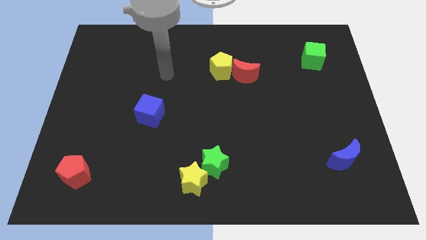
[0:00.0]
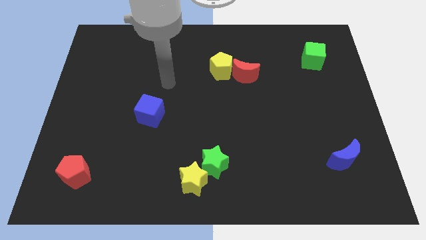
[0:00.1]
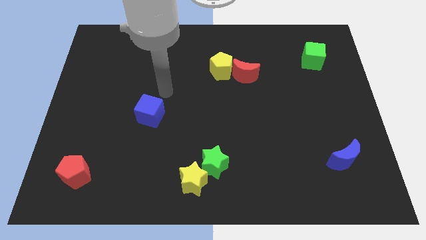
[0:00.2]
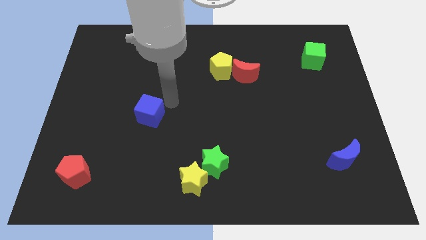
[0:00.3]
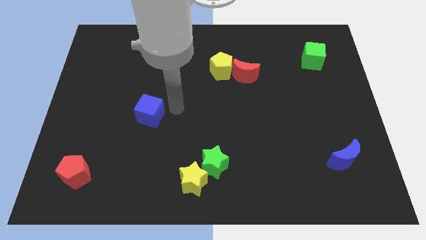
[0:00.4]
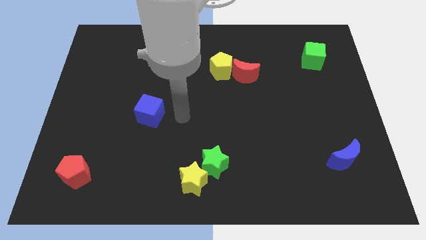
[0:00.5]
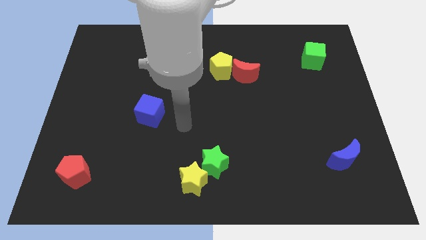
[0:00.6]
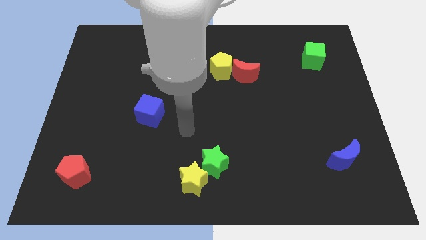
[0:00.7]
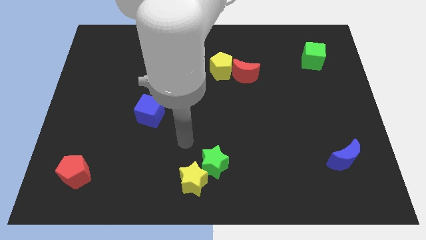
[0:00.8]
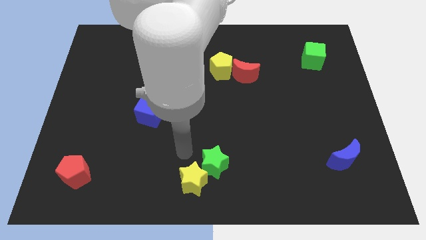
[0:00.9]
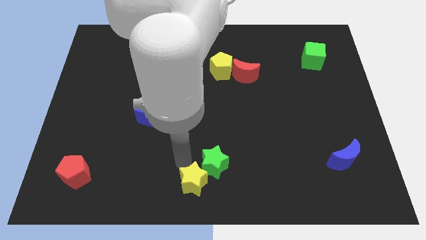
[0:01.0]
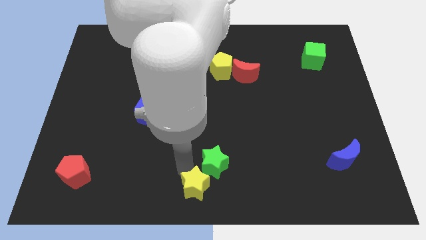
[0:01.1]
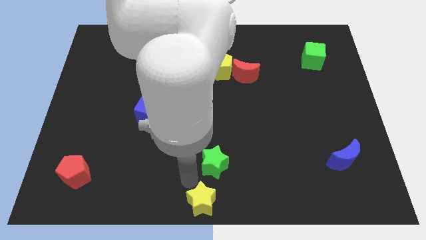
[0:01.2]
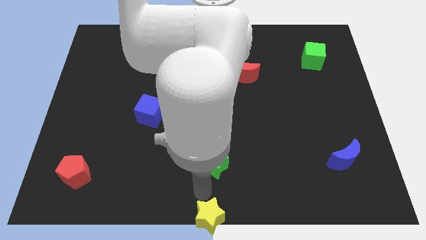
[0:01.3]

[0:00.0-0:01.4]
move the green star away from the yellow star

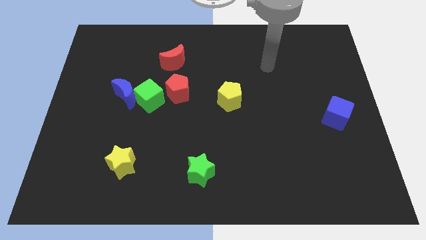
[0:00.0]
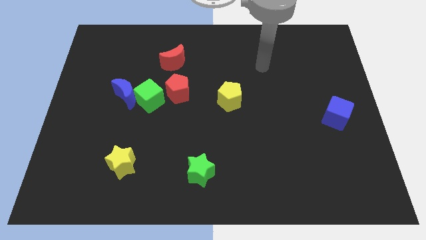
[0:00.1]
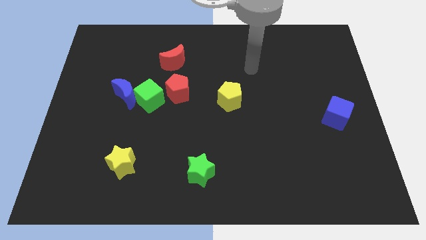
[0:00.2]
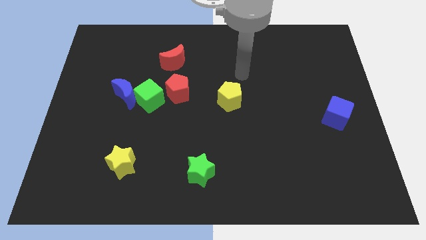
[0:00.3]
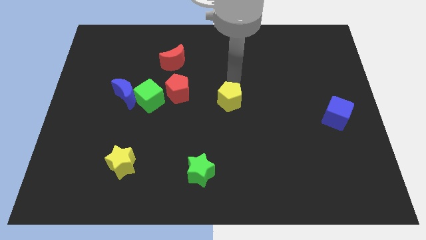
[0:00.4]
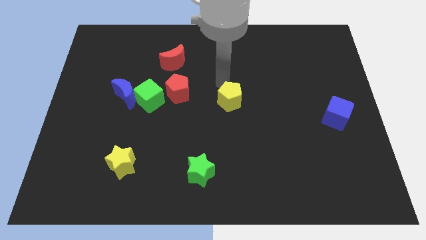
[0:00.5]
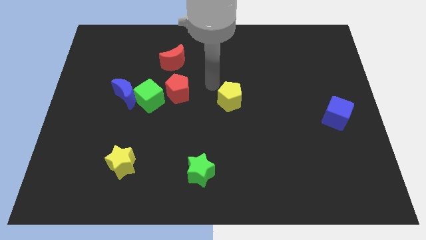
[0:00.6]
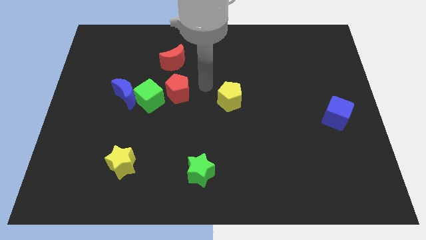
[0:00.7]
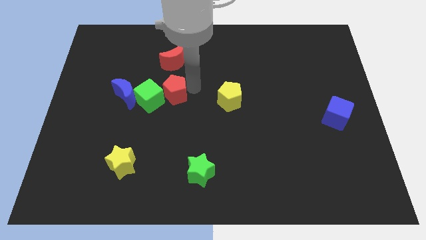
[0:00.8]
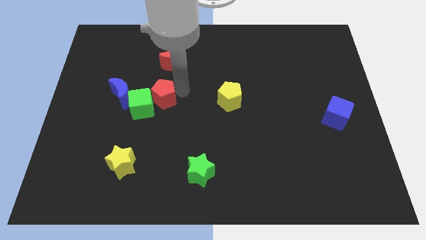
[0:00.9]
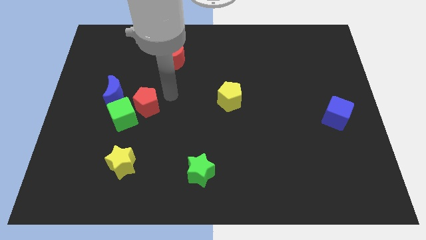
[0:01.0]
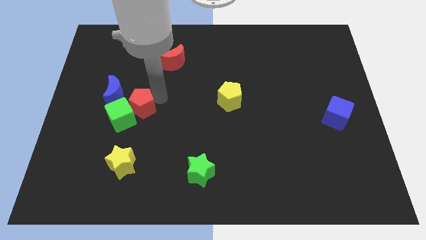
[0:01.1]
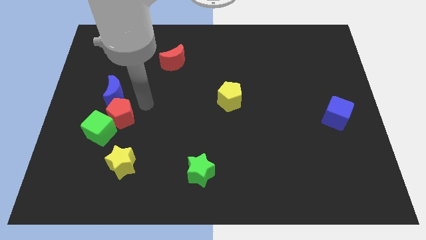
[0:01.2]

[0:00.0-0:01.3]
pull the blue moon apart from the green cube

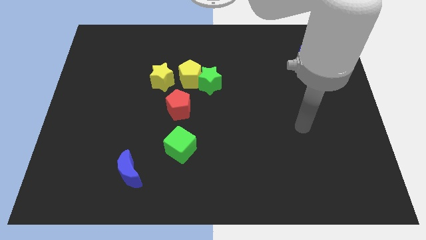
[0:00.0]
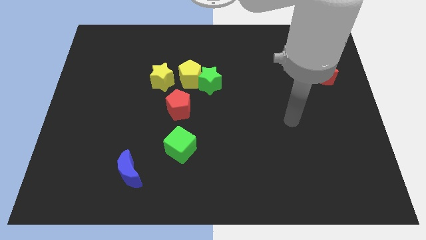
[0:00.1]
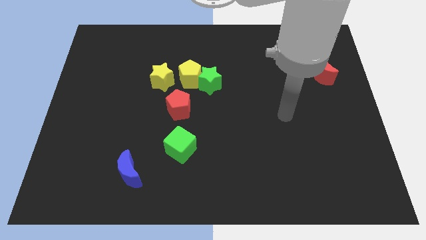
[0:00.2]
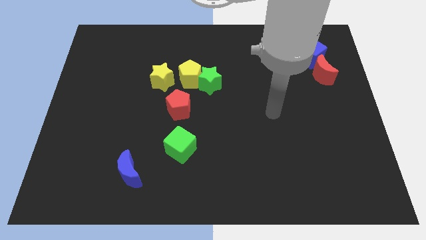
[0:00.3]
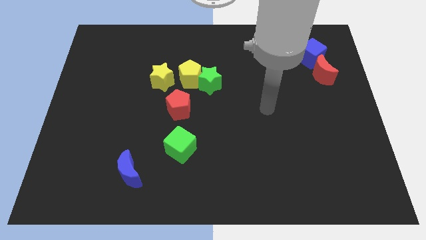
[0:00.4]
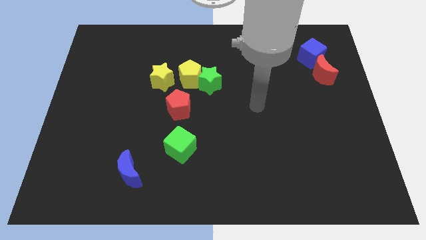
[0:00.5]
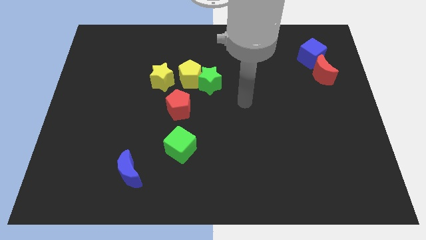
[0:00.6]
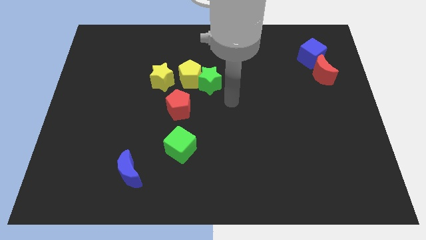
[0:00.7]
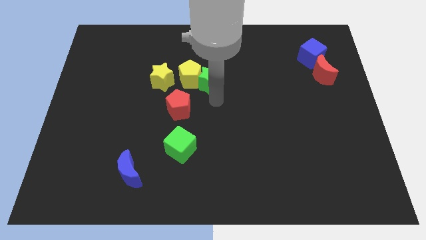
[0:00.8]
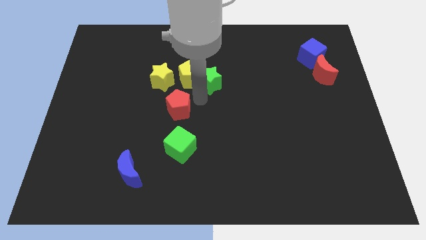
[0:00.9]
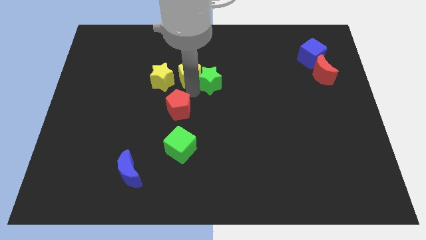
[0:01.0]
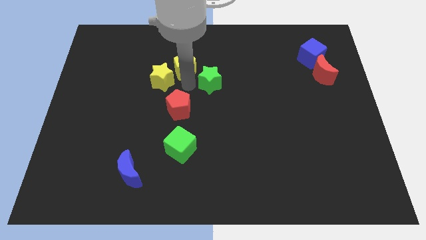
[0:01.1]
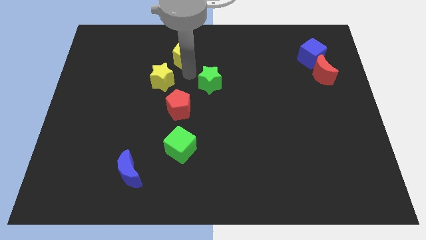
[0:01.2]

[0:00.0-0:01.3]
separate the green star from the yellow pentagon

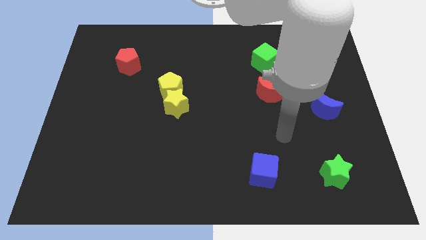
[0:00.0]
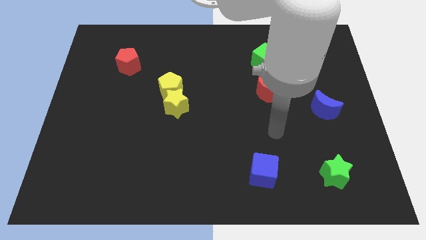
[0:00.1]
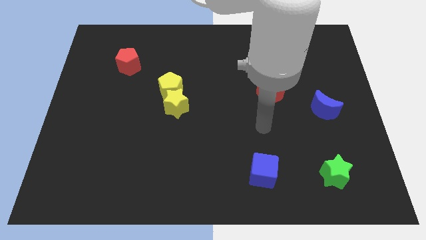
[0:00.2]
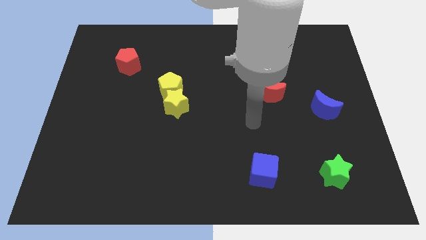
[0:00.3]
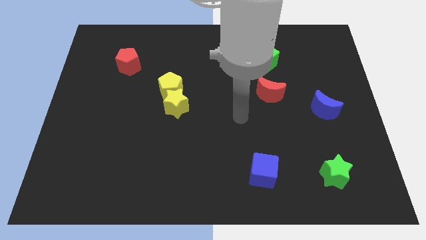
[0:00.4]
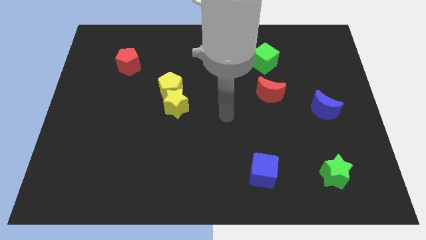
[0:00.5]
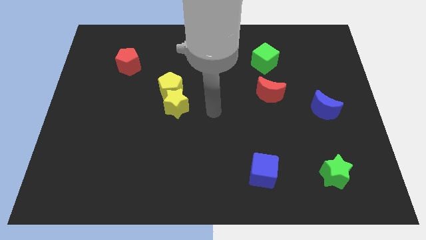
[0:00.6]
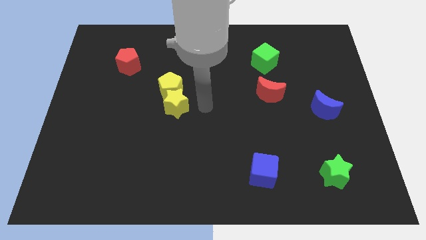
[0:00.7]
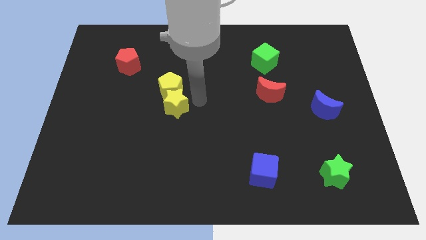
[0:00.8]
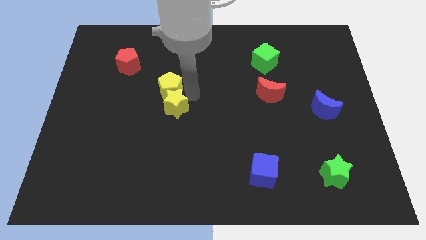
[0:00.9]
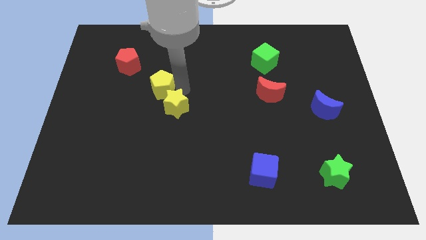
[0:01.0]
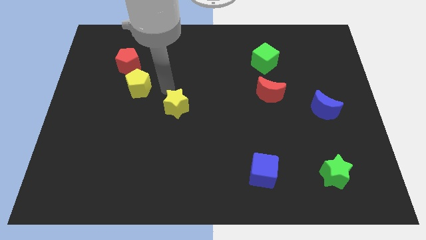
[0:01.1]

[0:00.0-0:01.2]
move the yellow star away from the yellow pentagon

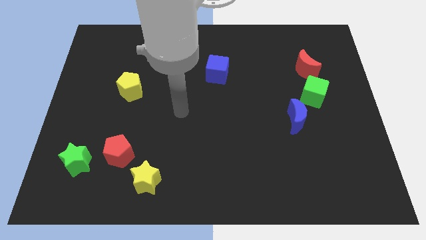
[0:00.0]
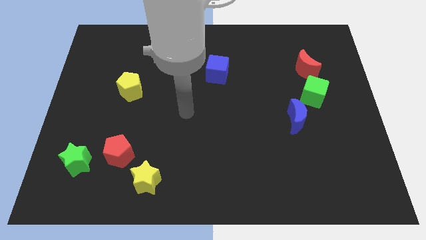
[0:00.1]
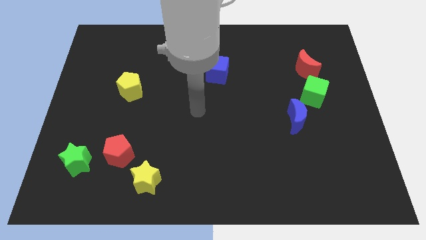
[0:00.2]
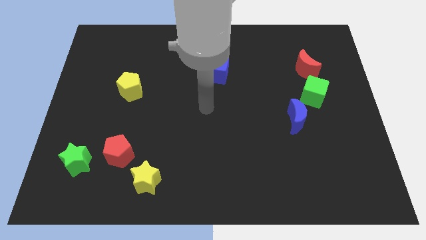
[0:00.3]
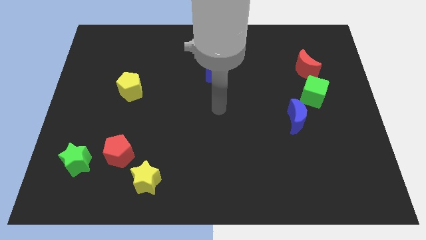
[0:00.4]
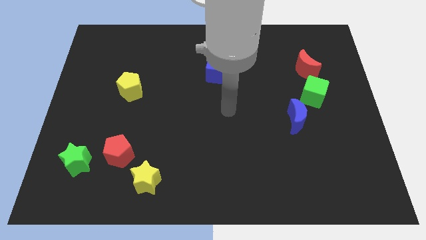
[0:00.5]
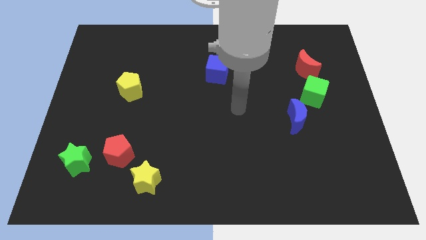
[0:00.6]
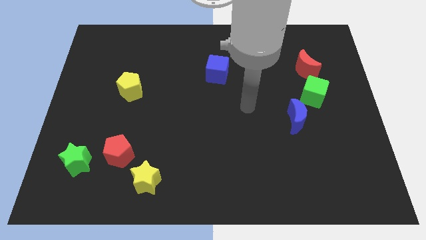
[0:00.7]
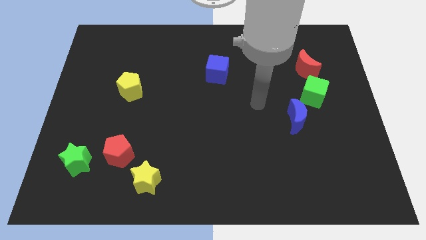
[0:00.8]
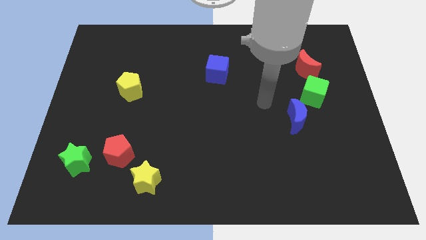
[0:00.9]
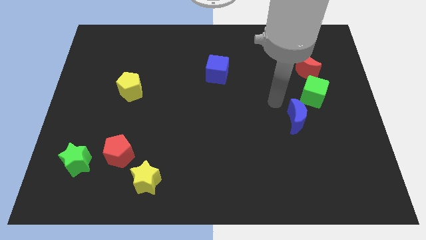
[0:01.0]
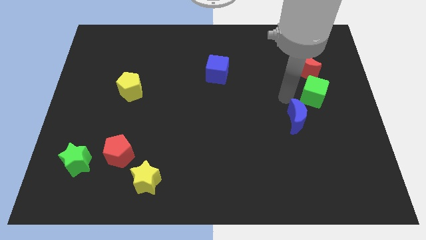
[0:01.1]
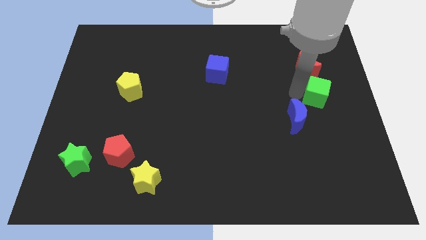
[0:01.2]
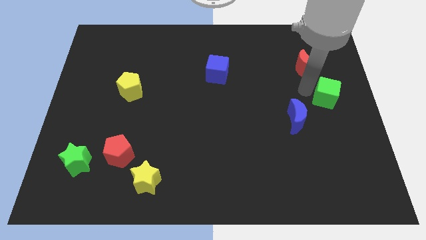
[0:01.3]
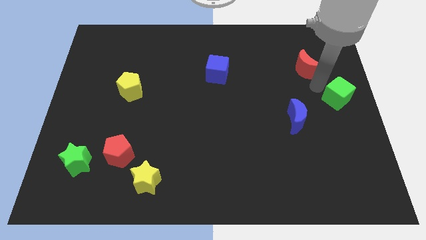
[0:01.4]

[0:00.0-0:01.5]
separate the red moon from the green cube

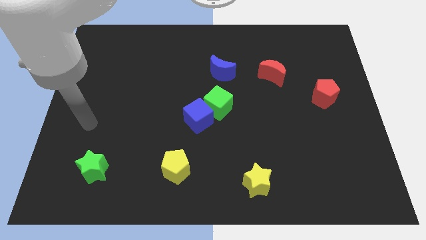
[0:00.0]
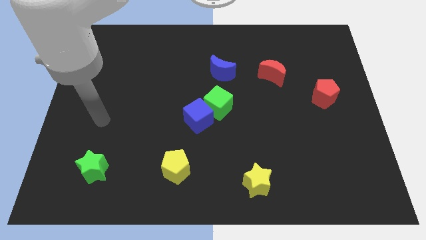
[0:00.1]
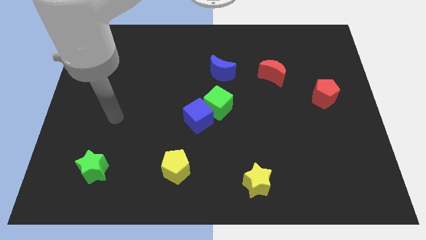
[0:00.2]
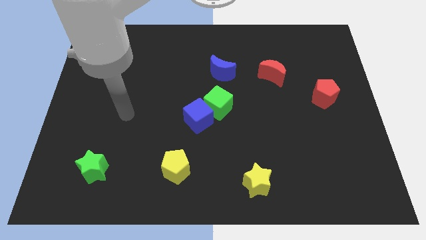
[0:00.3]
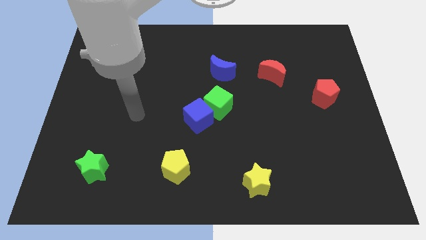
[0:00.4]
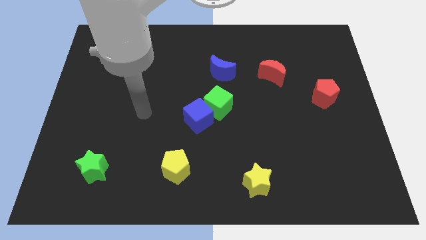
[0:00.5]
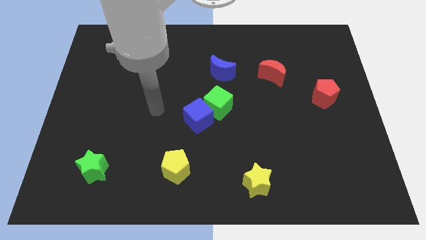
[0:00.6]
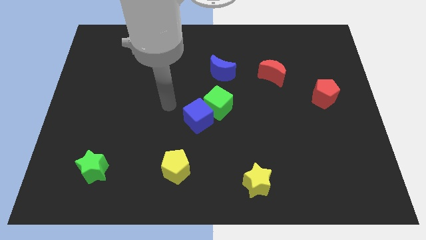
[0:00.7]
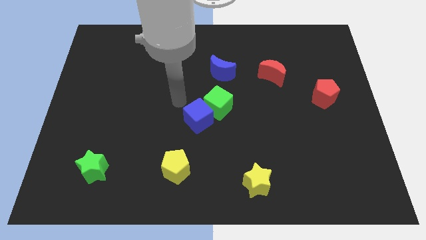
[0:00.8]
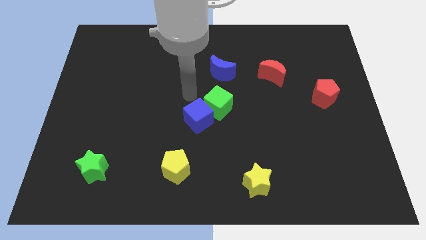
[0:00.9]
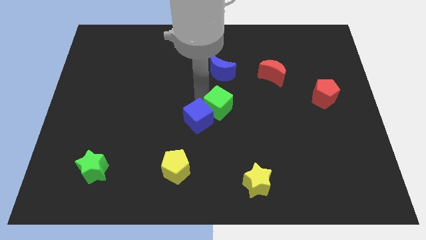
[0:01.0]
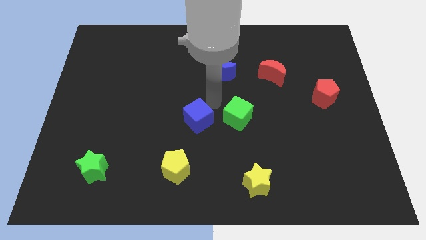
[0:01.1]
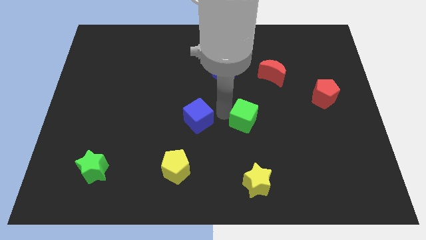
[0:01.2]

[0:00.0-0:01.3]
separate the blue cube from the green cube

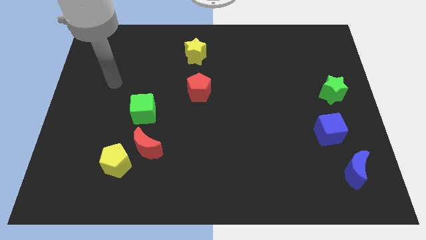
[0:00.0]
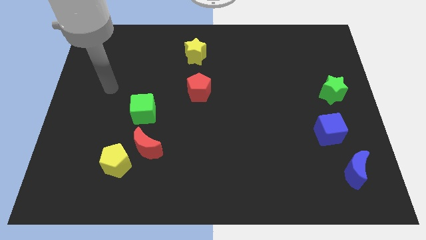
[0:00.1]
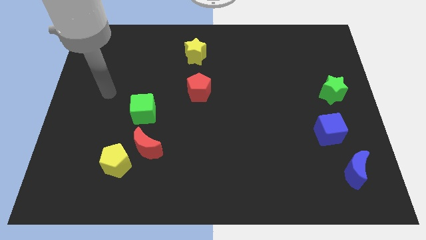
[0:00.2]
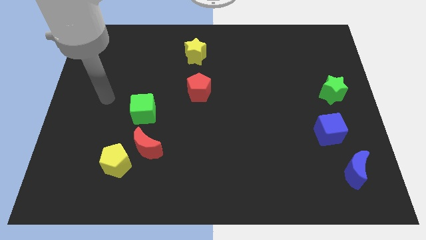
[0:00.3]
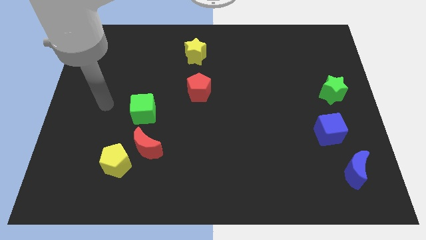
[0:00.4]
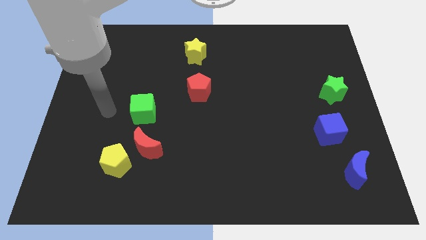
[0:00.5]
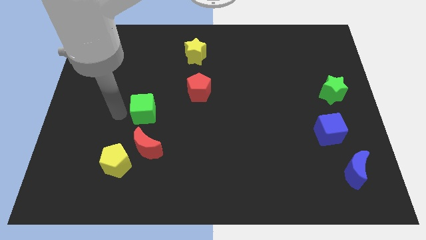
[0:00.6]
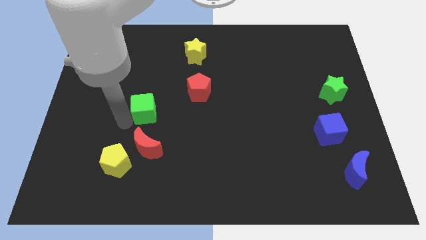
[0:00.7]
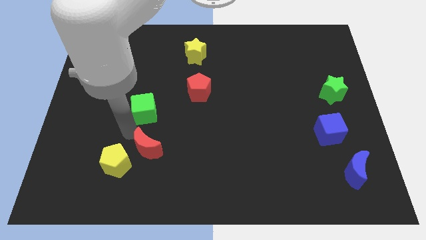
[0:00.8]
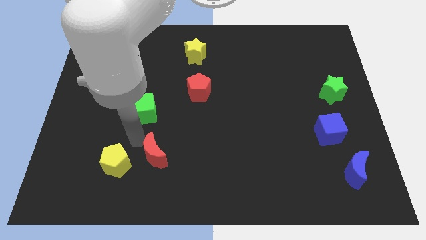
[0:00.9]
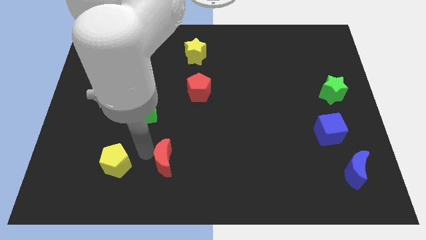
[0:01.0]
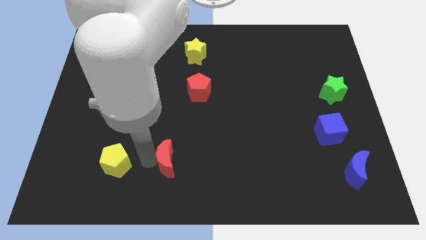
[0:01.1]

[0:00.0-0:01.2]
move the yellow pentagon away from the red moon

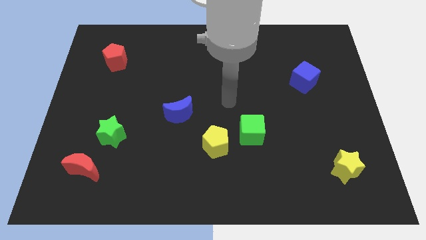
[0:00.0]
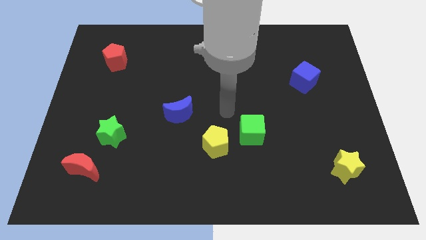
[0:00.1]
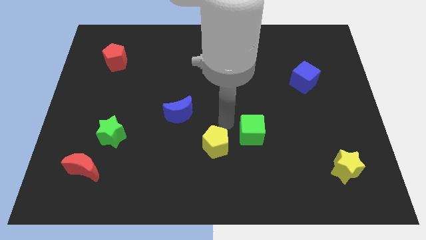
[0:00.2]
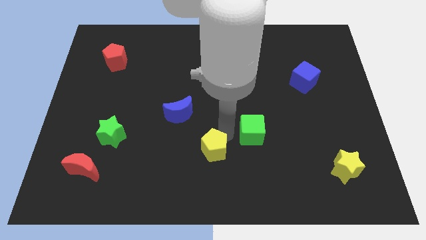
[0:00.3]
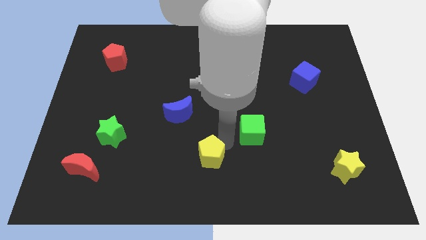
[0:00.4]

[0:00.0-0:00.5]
move the green cube away from the yellow pentagon
